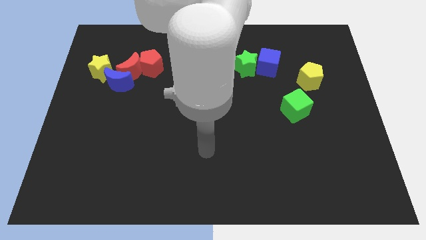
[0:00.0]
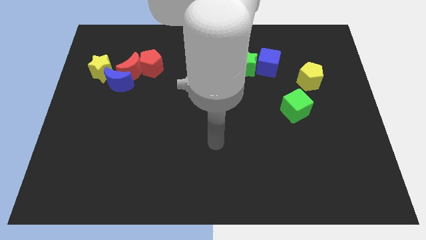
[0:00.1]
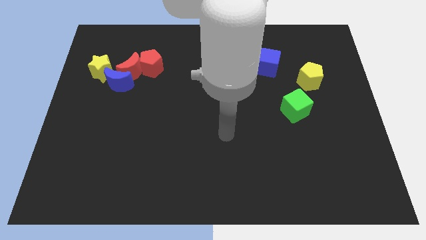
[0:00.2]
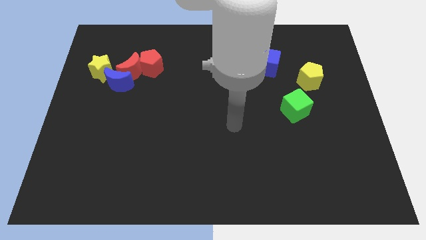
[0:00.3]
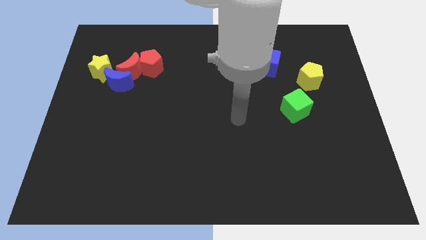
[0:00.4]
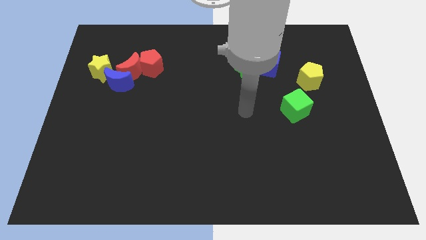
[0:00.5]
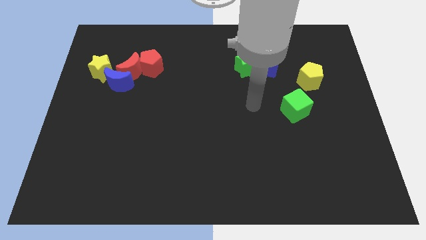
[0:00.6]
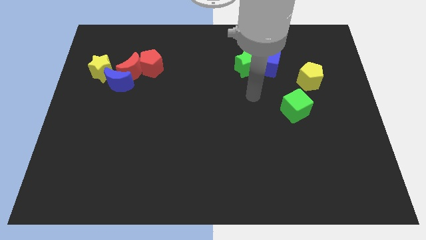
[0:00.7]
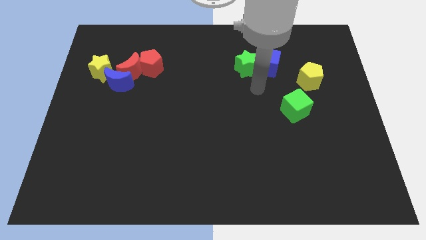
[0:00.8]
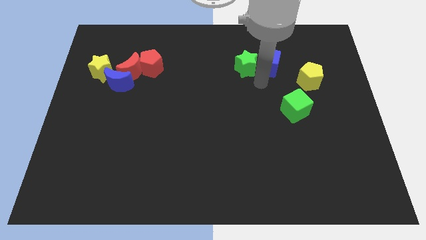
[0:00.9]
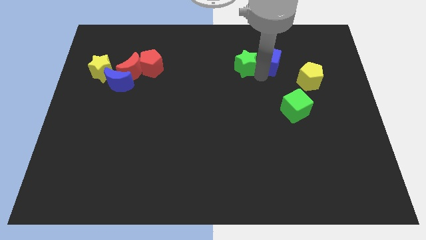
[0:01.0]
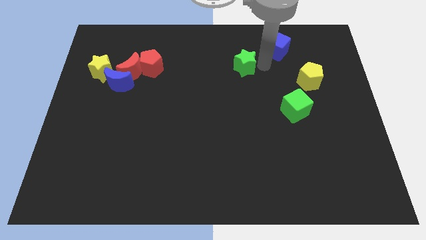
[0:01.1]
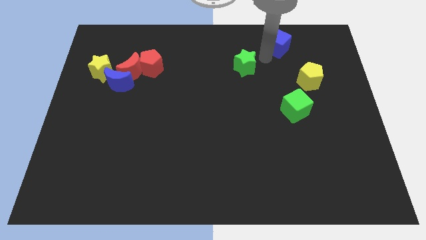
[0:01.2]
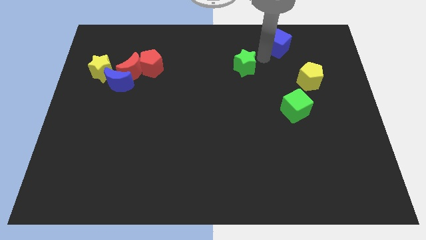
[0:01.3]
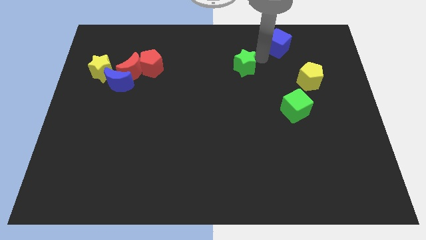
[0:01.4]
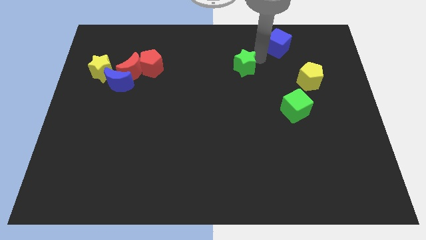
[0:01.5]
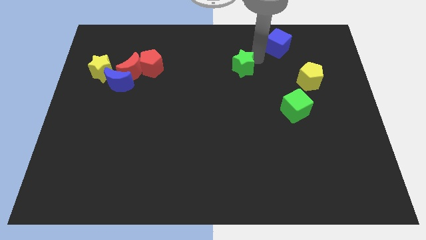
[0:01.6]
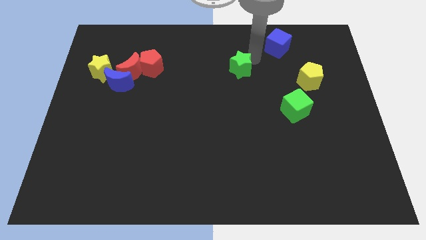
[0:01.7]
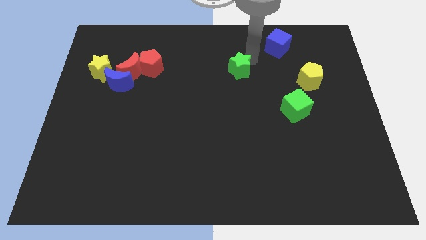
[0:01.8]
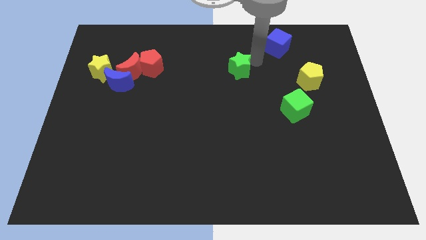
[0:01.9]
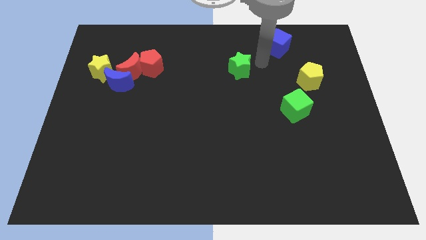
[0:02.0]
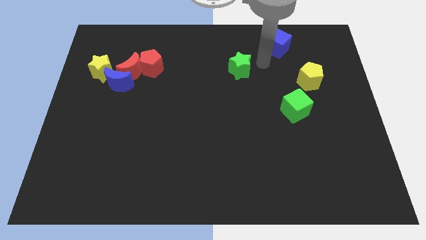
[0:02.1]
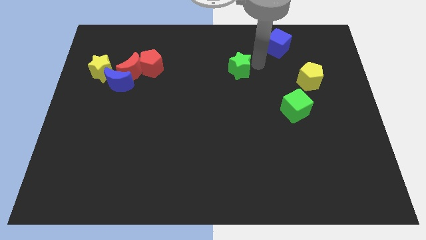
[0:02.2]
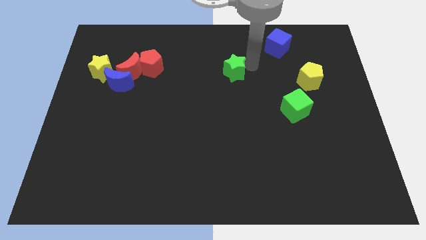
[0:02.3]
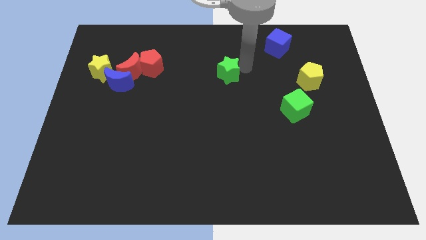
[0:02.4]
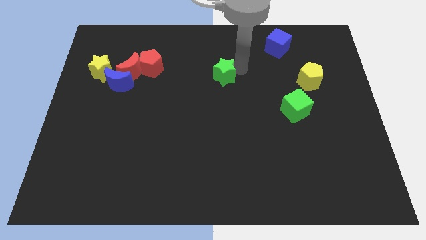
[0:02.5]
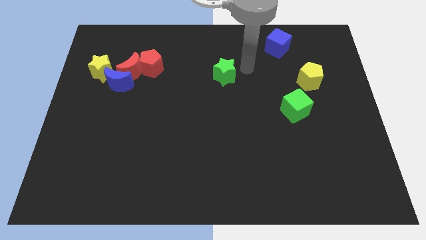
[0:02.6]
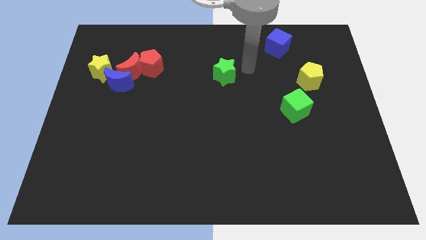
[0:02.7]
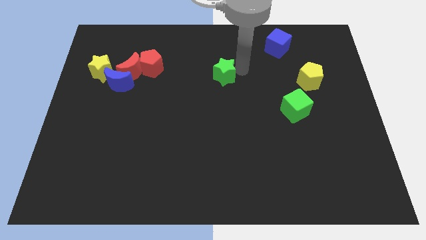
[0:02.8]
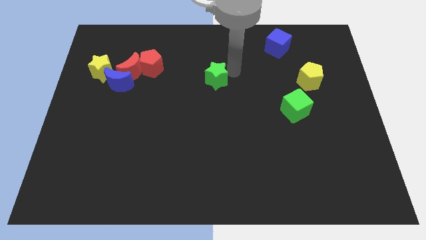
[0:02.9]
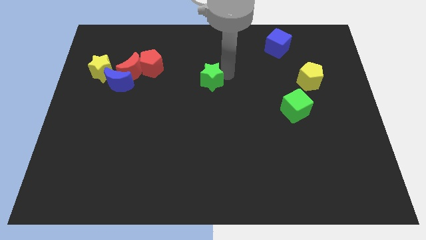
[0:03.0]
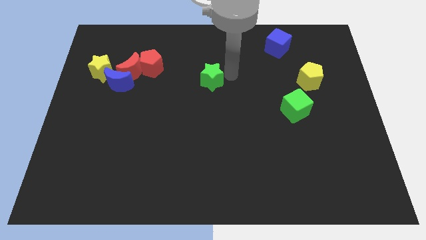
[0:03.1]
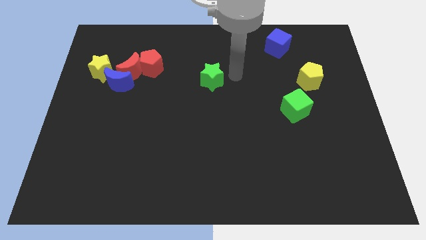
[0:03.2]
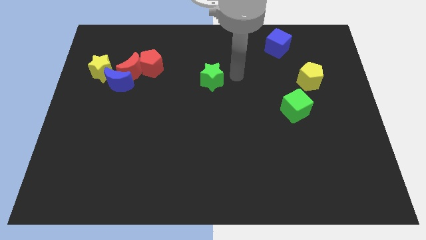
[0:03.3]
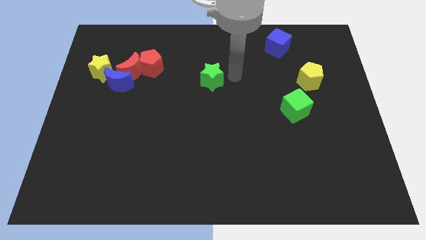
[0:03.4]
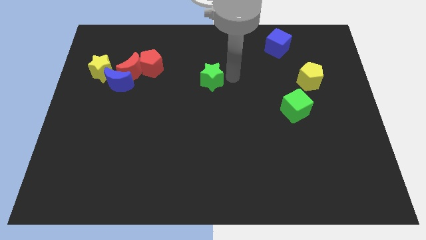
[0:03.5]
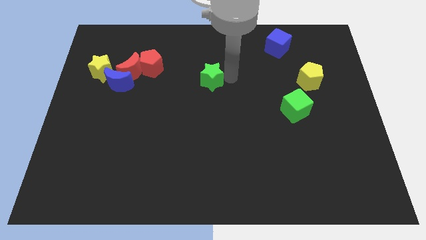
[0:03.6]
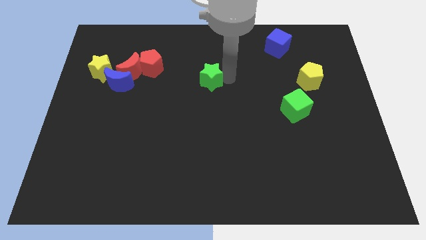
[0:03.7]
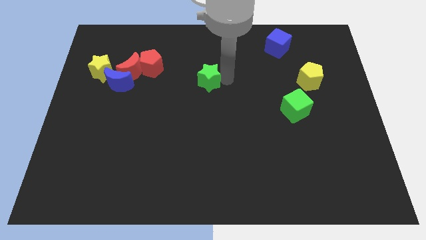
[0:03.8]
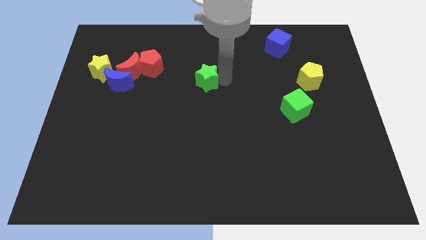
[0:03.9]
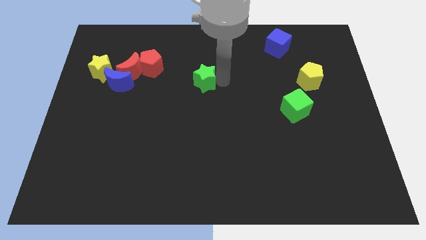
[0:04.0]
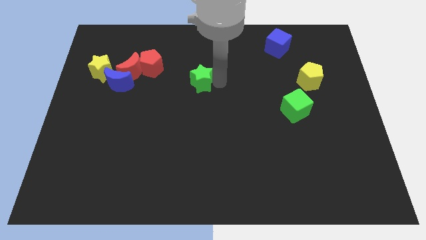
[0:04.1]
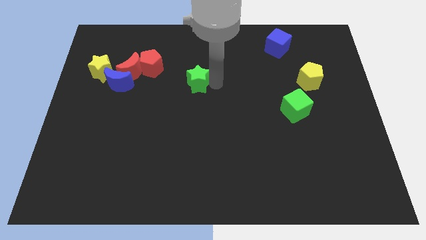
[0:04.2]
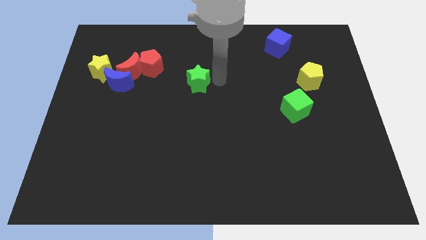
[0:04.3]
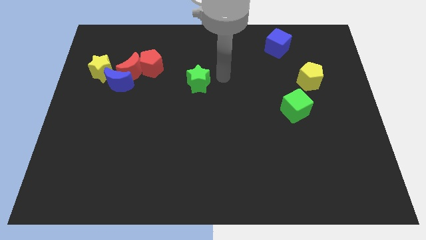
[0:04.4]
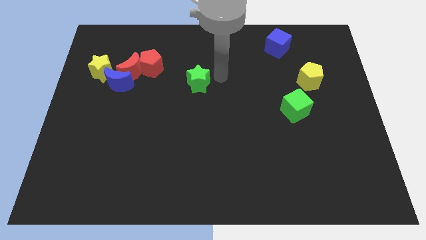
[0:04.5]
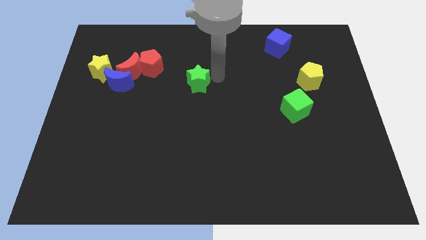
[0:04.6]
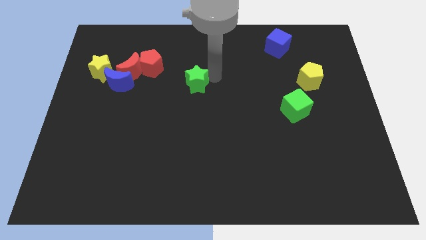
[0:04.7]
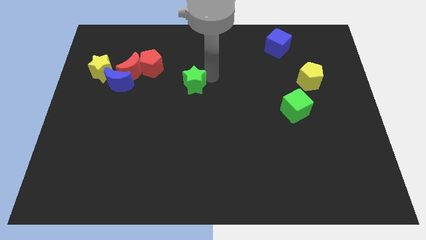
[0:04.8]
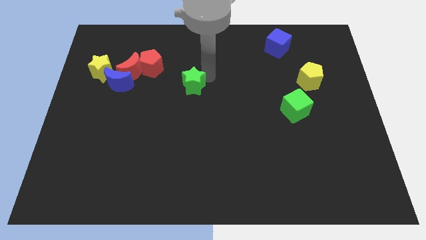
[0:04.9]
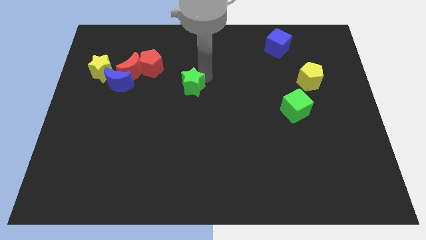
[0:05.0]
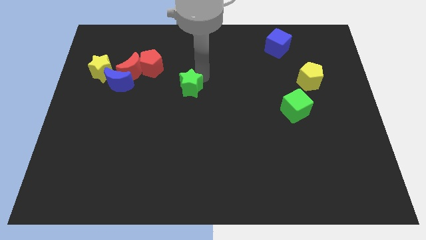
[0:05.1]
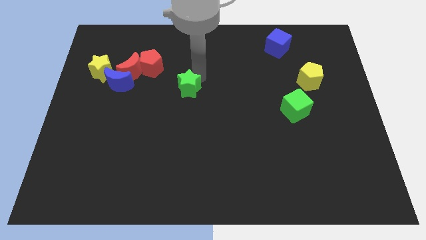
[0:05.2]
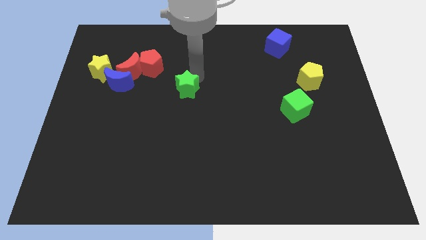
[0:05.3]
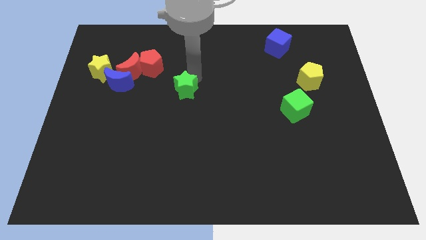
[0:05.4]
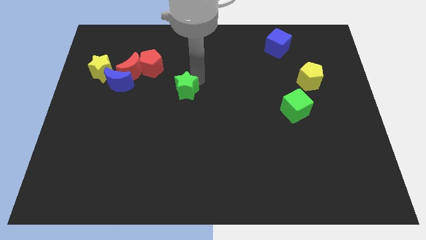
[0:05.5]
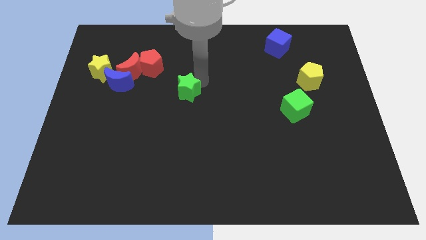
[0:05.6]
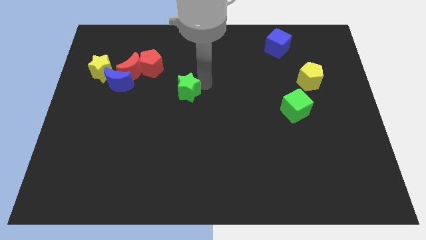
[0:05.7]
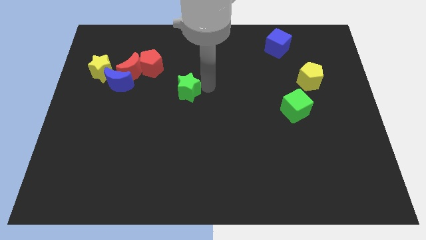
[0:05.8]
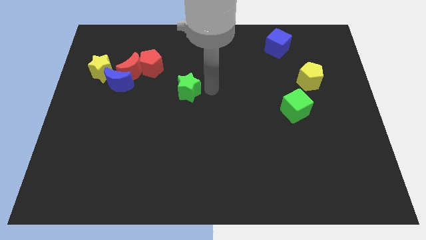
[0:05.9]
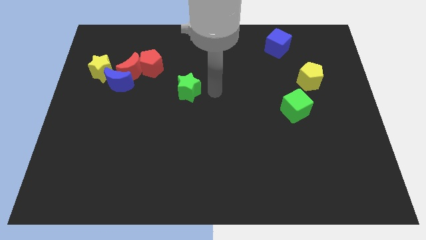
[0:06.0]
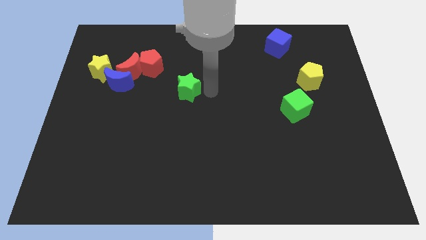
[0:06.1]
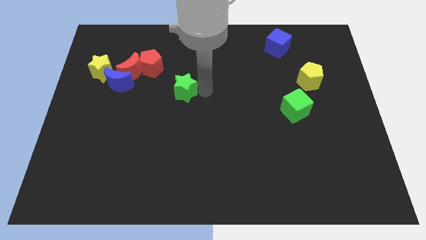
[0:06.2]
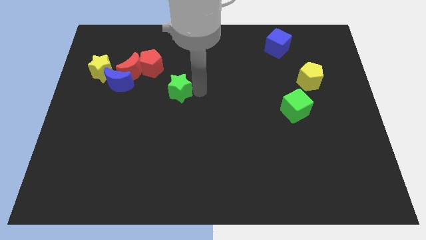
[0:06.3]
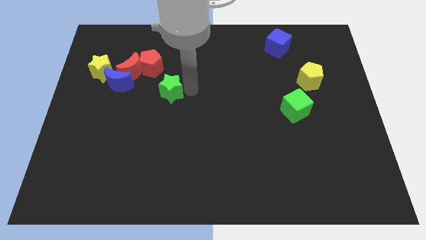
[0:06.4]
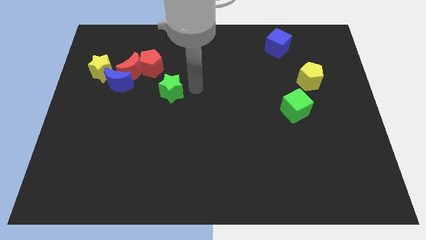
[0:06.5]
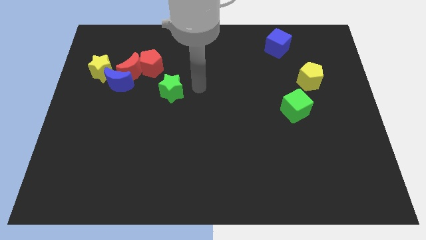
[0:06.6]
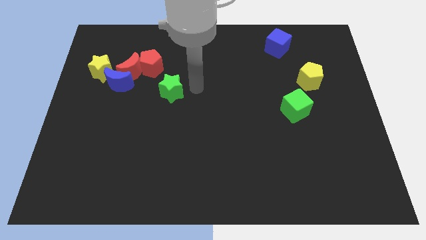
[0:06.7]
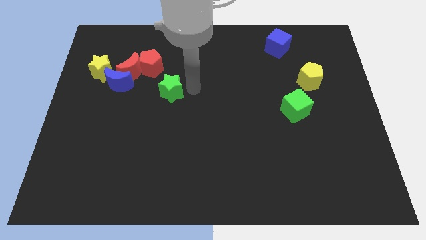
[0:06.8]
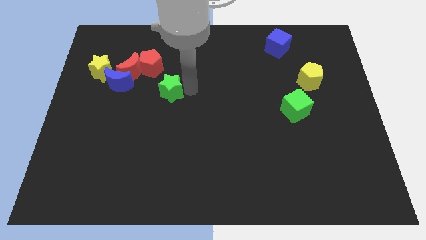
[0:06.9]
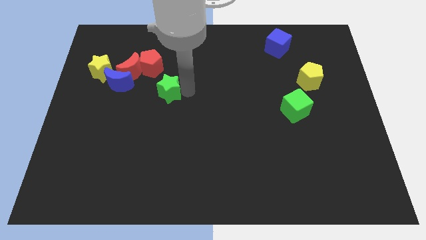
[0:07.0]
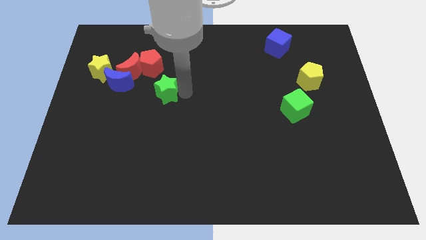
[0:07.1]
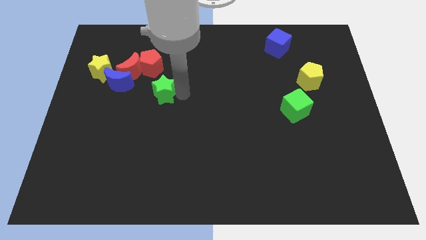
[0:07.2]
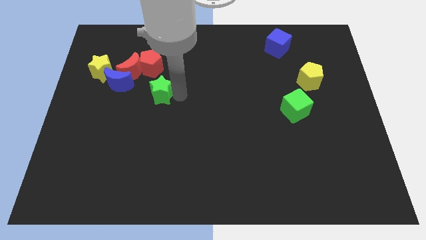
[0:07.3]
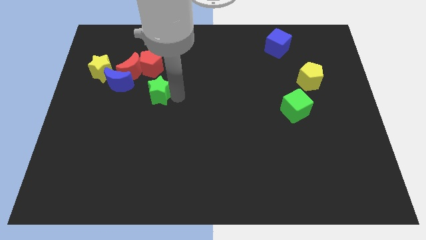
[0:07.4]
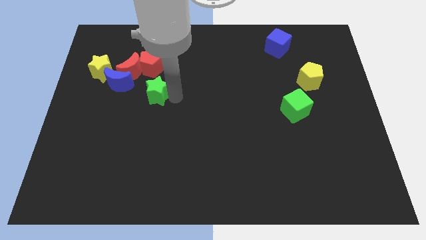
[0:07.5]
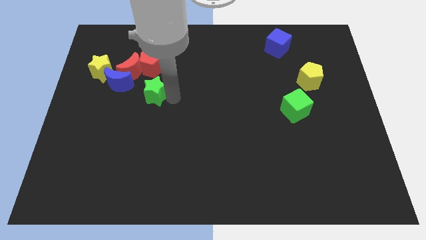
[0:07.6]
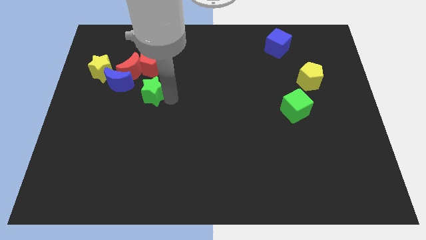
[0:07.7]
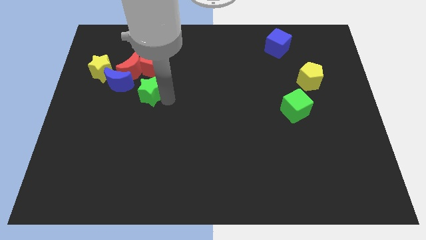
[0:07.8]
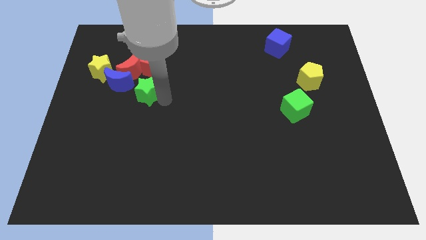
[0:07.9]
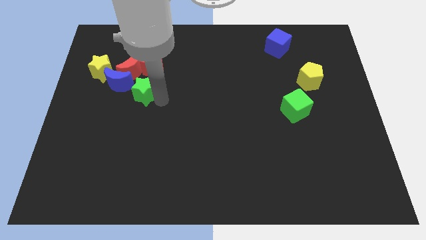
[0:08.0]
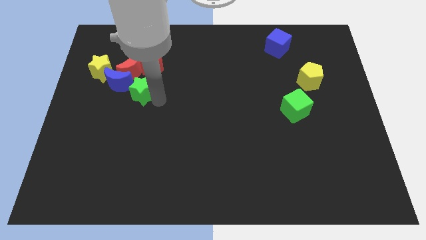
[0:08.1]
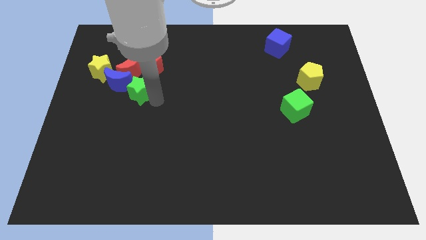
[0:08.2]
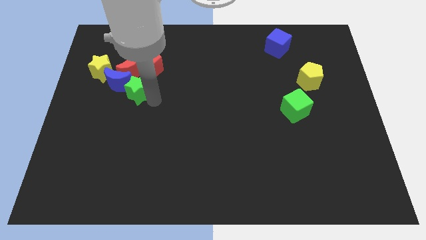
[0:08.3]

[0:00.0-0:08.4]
move the green star to the blue moon

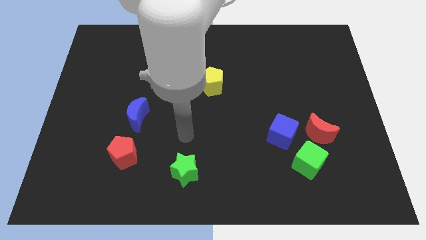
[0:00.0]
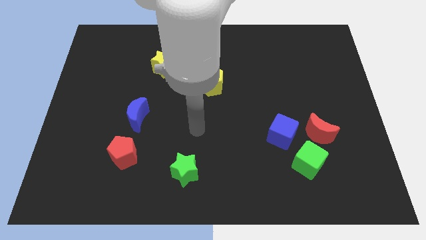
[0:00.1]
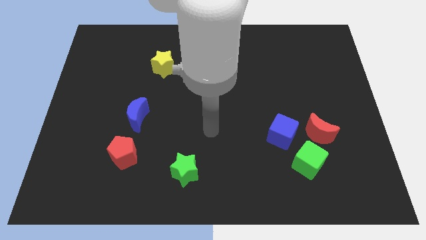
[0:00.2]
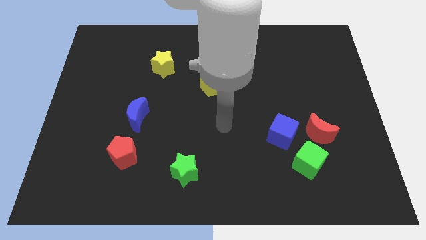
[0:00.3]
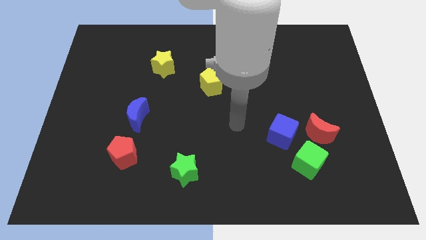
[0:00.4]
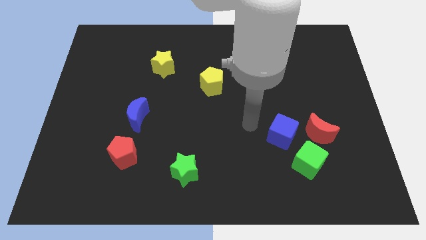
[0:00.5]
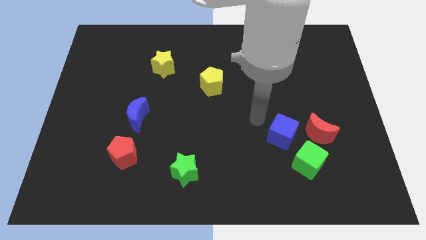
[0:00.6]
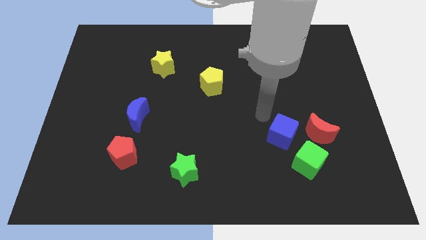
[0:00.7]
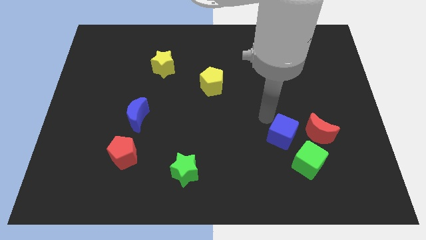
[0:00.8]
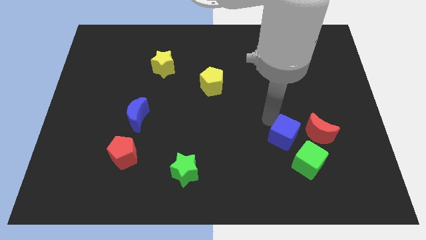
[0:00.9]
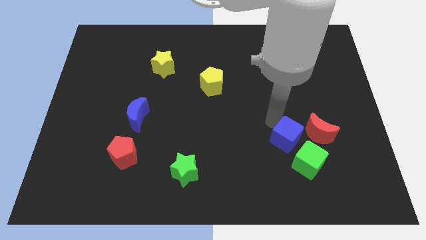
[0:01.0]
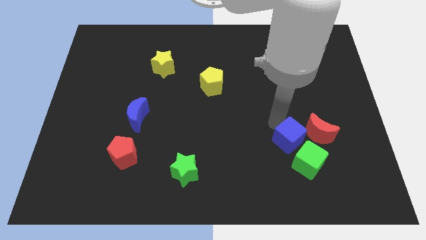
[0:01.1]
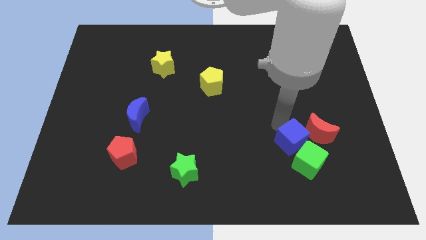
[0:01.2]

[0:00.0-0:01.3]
slide the blue cube towards the green cube
